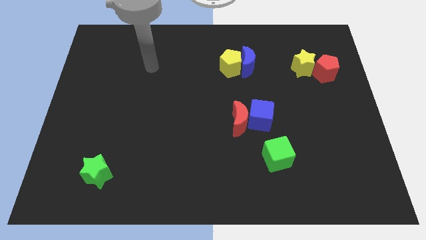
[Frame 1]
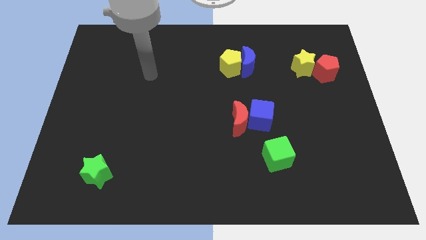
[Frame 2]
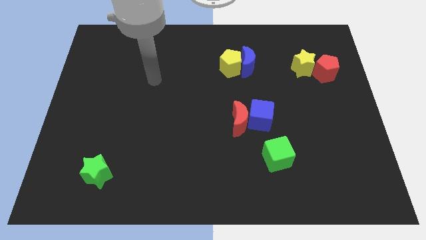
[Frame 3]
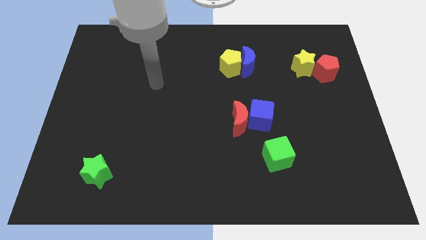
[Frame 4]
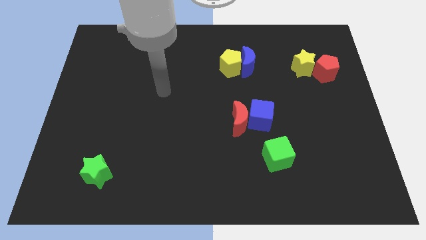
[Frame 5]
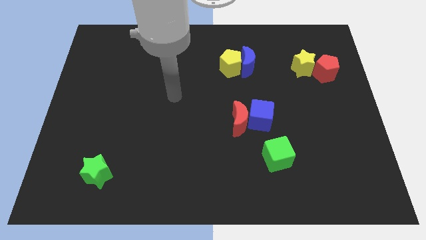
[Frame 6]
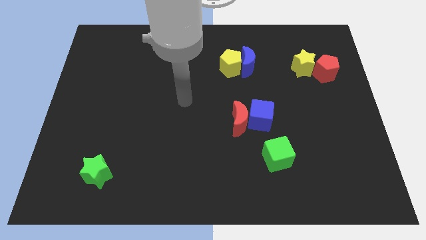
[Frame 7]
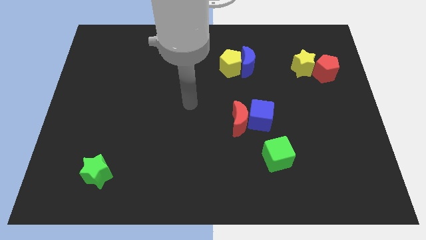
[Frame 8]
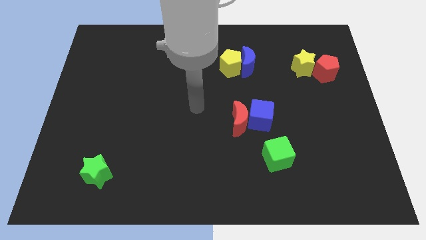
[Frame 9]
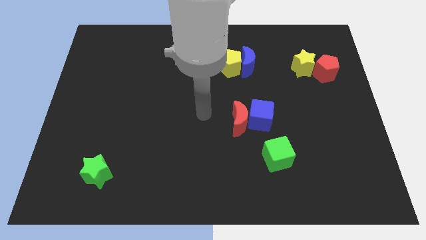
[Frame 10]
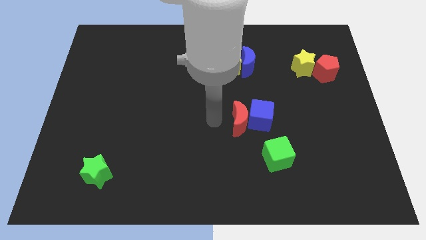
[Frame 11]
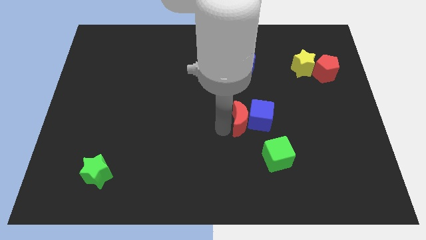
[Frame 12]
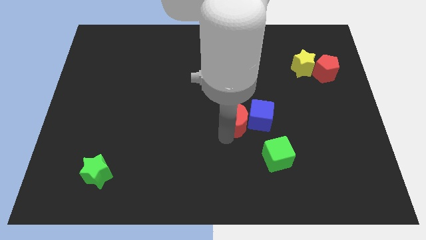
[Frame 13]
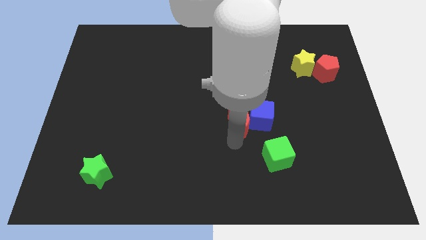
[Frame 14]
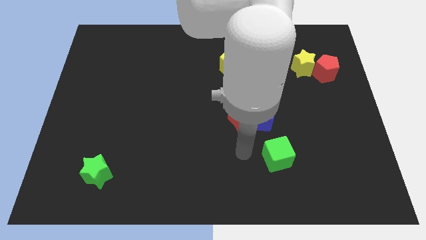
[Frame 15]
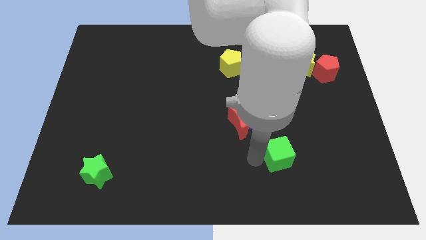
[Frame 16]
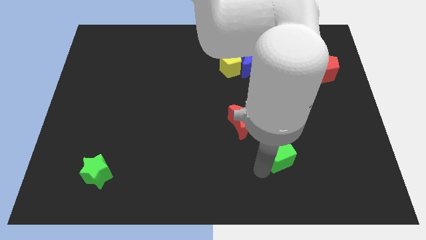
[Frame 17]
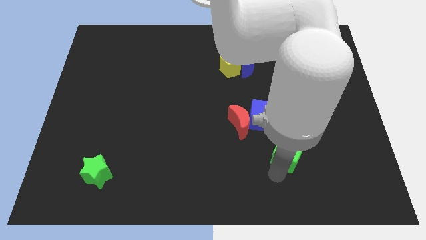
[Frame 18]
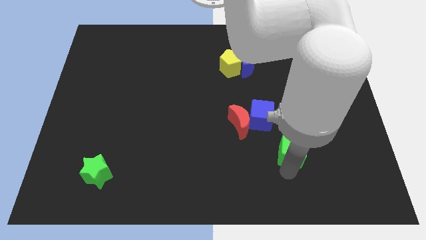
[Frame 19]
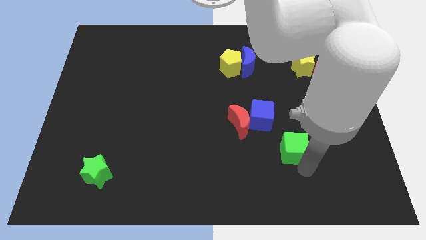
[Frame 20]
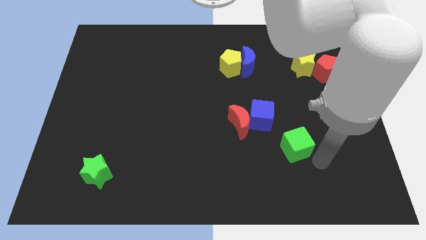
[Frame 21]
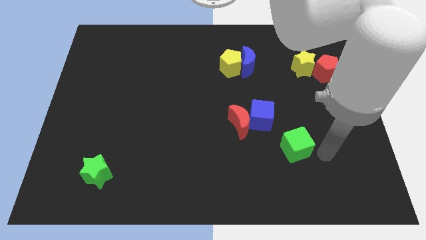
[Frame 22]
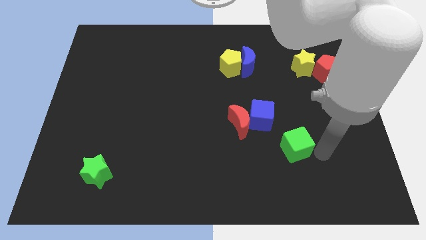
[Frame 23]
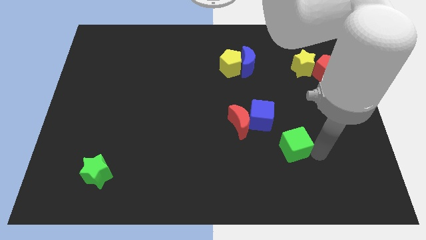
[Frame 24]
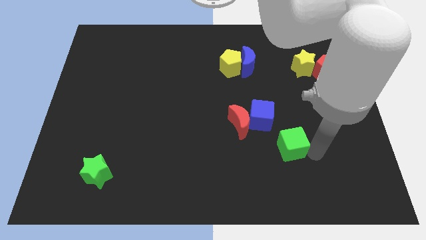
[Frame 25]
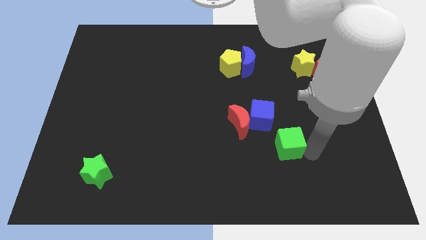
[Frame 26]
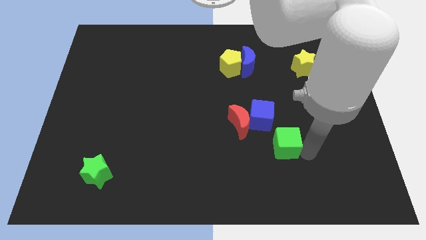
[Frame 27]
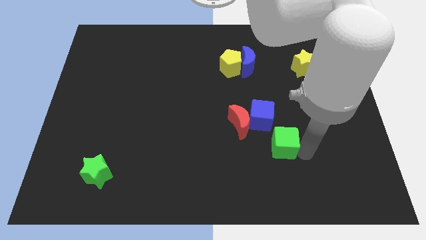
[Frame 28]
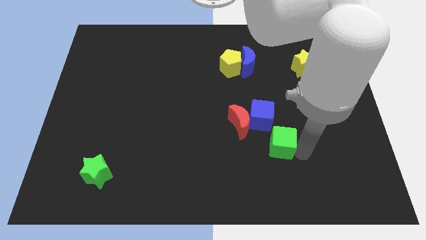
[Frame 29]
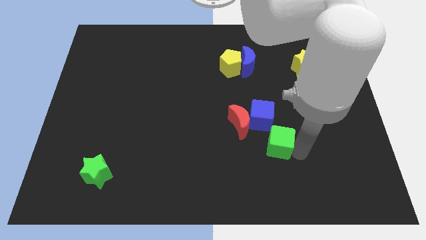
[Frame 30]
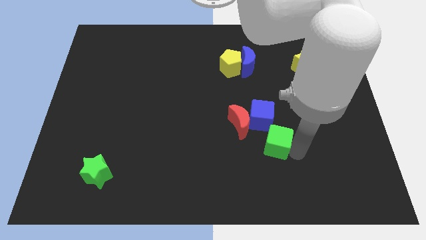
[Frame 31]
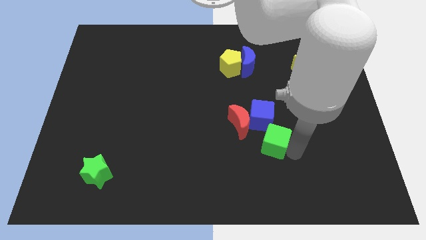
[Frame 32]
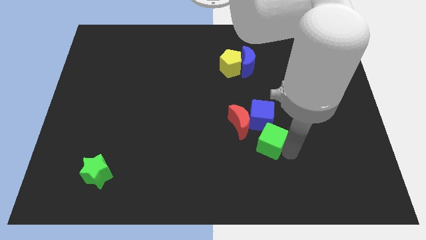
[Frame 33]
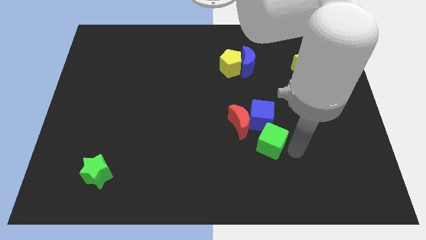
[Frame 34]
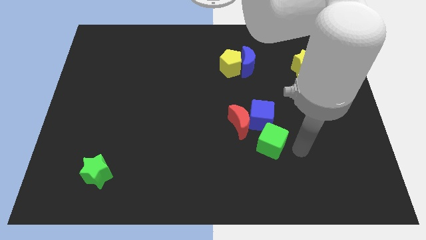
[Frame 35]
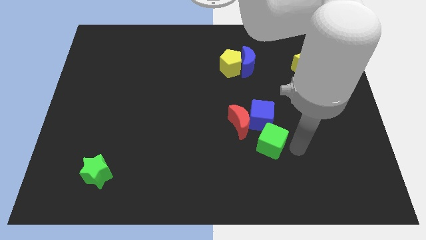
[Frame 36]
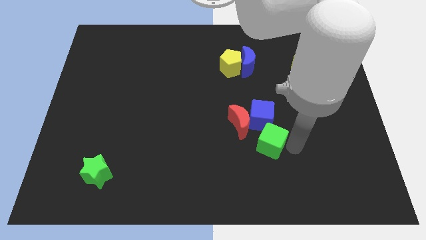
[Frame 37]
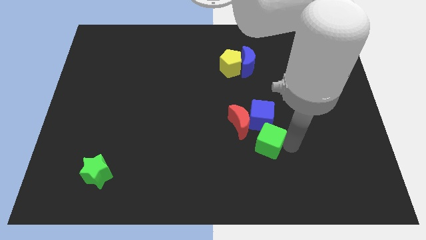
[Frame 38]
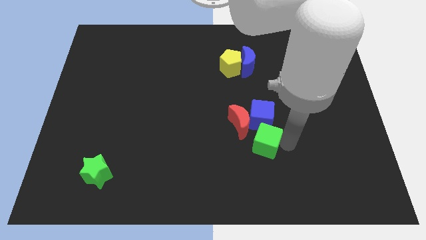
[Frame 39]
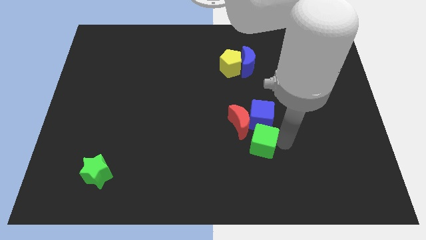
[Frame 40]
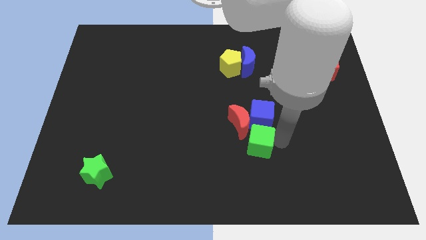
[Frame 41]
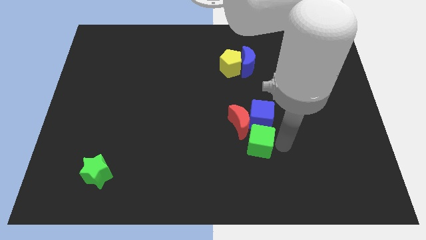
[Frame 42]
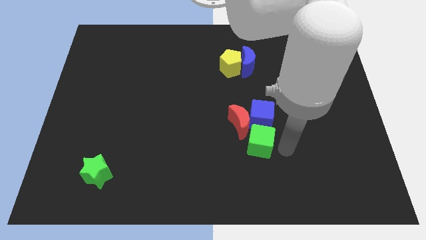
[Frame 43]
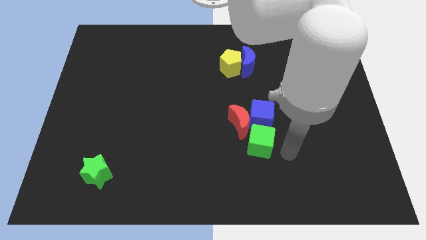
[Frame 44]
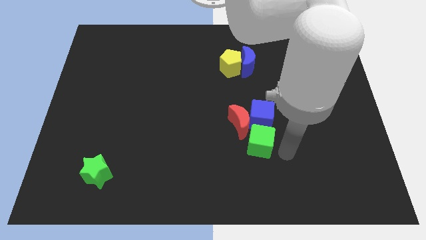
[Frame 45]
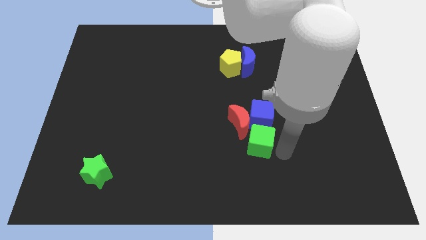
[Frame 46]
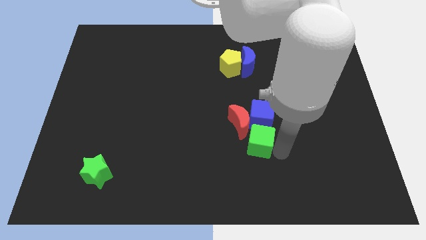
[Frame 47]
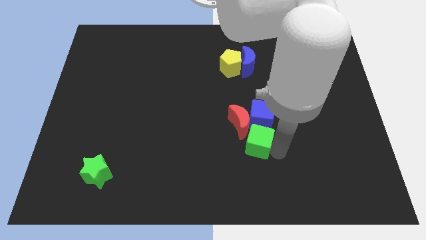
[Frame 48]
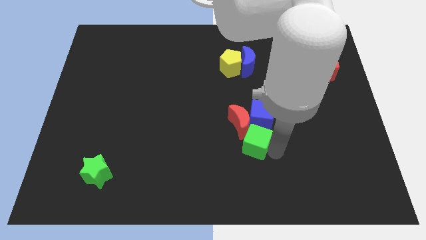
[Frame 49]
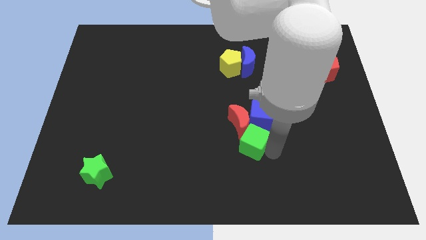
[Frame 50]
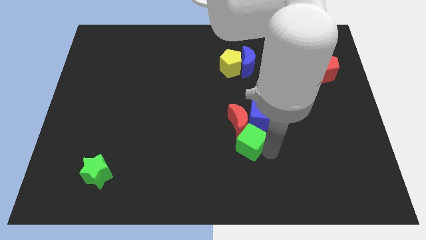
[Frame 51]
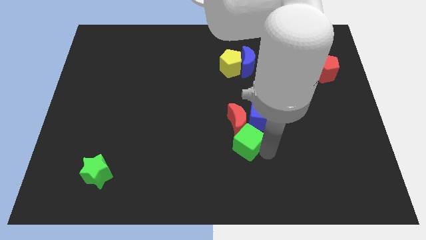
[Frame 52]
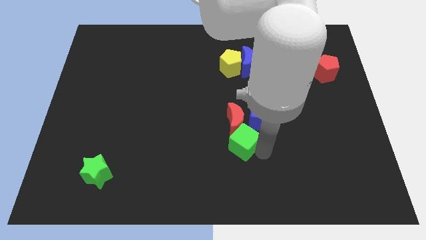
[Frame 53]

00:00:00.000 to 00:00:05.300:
push the green cube diagonally upwards and to the left somewhat

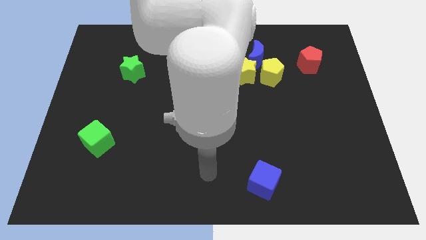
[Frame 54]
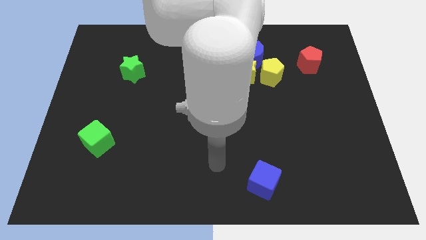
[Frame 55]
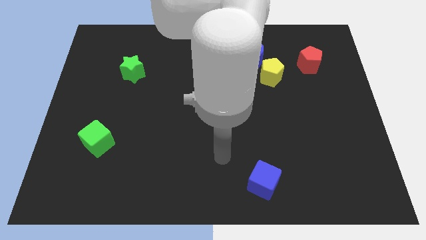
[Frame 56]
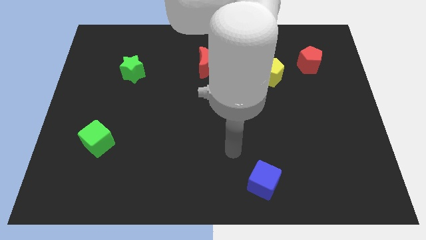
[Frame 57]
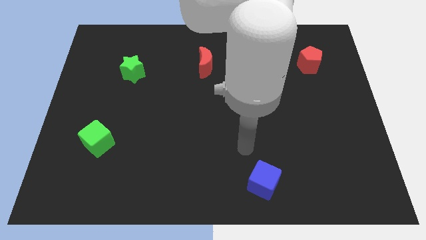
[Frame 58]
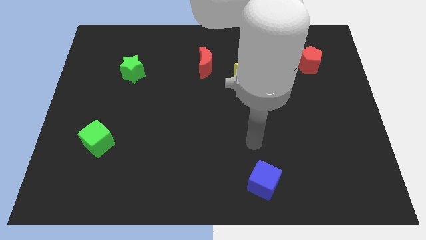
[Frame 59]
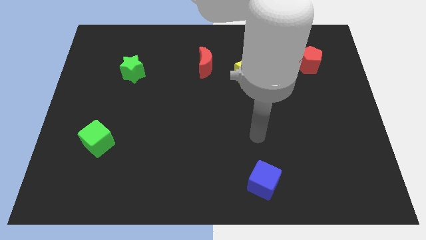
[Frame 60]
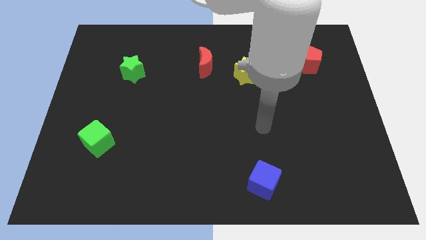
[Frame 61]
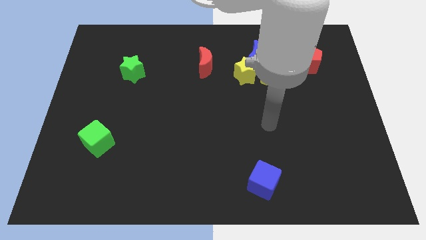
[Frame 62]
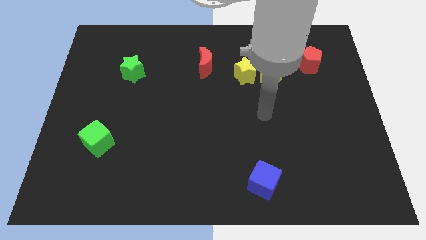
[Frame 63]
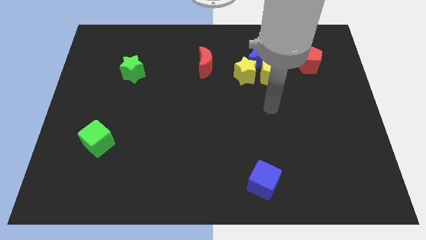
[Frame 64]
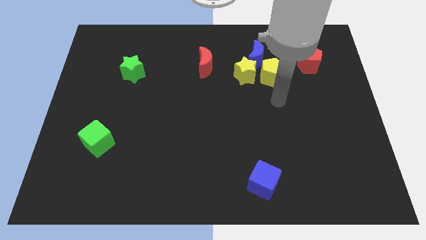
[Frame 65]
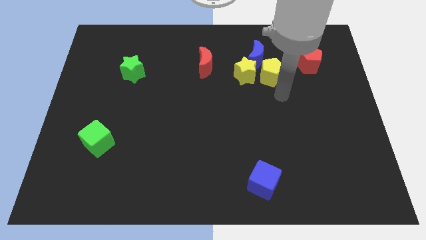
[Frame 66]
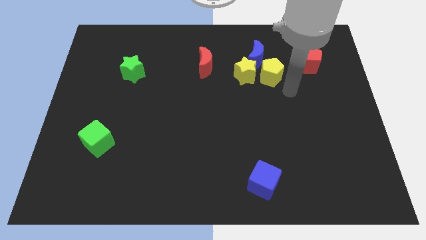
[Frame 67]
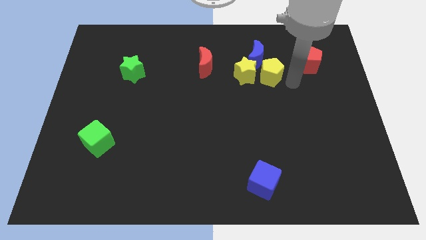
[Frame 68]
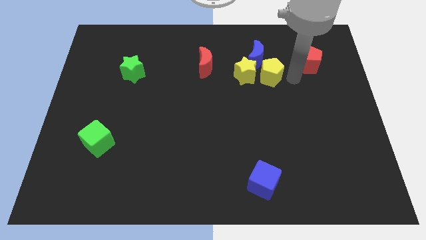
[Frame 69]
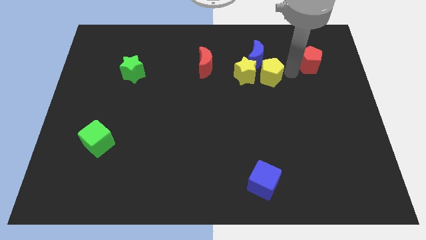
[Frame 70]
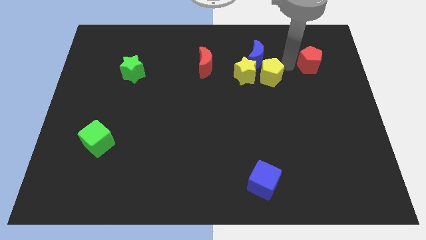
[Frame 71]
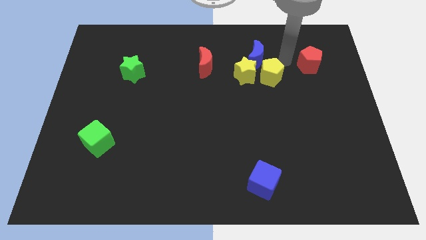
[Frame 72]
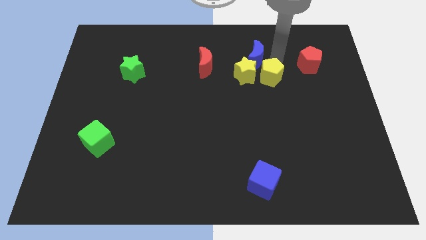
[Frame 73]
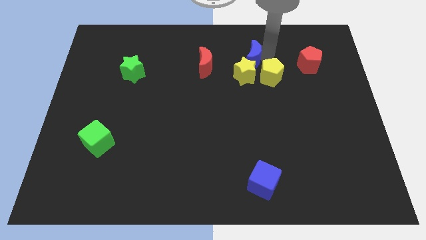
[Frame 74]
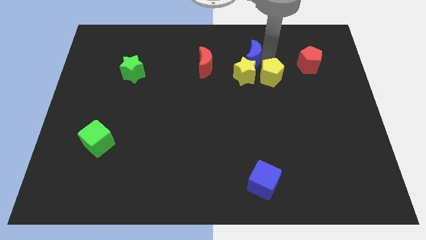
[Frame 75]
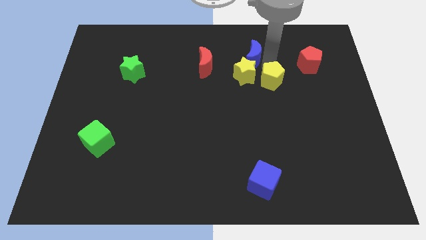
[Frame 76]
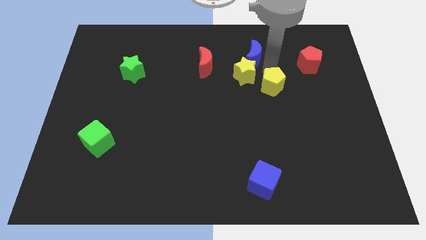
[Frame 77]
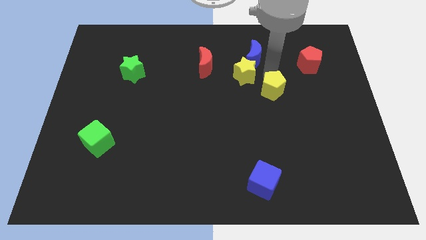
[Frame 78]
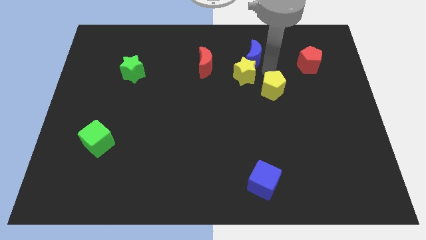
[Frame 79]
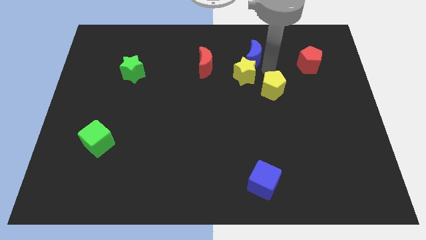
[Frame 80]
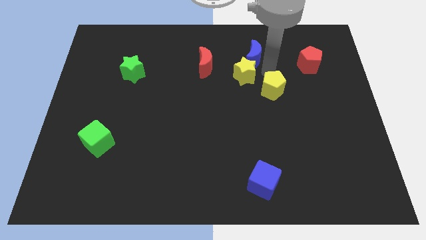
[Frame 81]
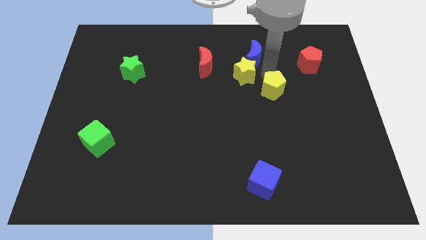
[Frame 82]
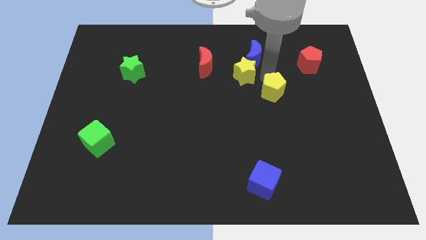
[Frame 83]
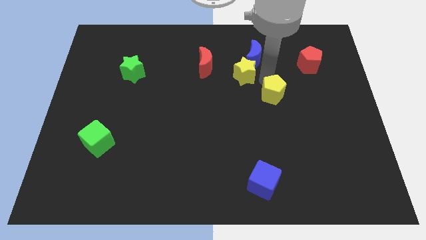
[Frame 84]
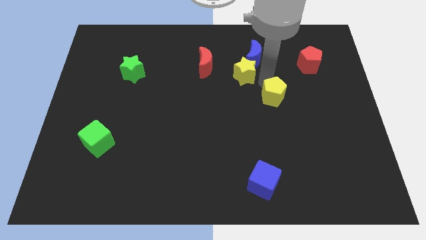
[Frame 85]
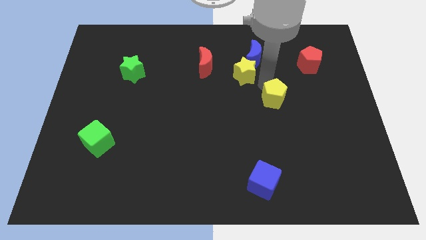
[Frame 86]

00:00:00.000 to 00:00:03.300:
push the yellow pentagon downwards a bit
